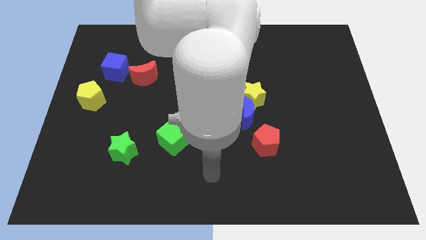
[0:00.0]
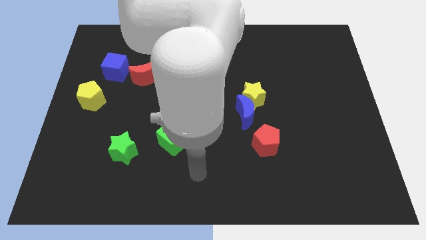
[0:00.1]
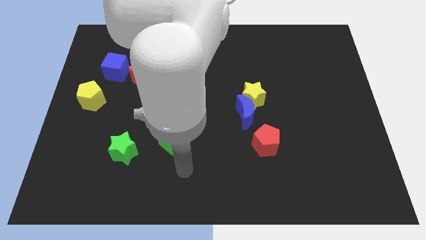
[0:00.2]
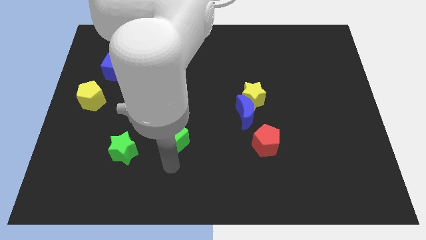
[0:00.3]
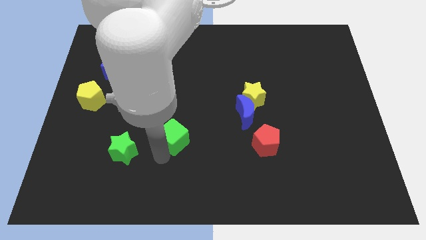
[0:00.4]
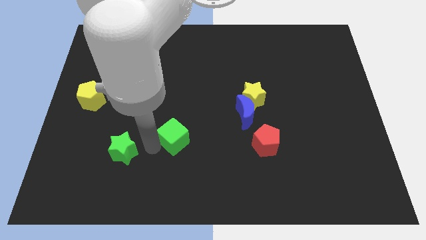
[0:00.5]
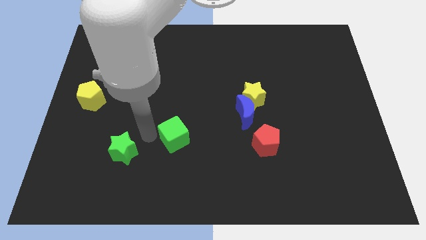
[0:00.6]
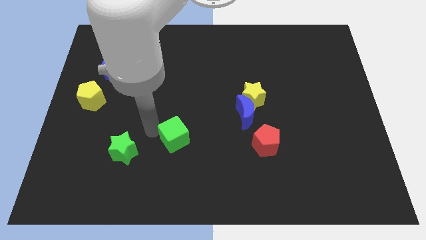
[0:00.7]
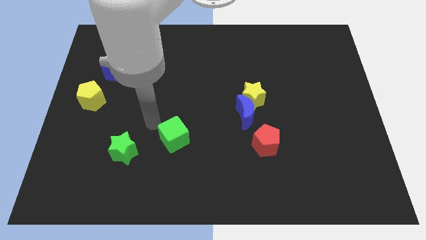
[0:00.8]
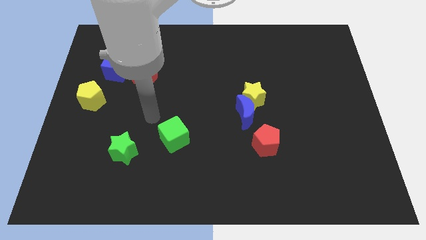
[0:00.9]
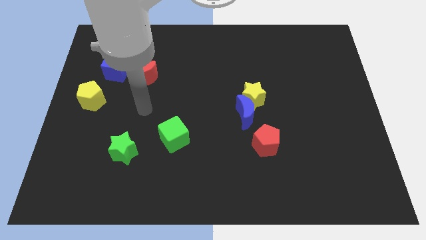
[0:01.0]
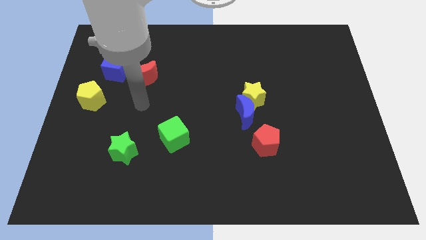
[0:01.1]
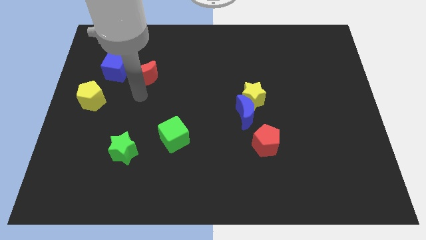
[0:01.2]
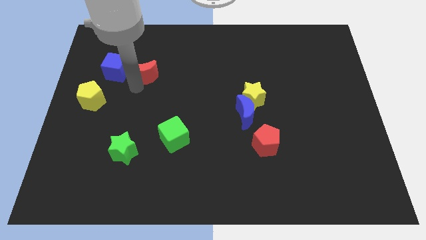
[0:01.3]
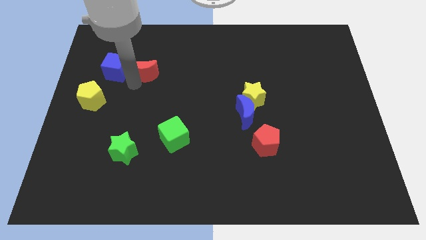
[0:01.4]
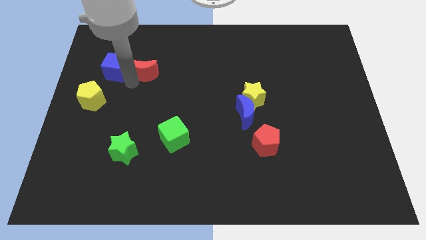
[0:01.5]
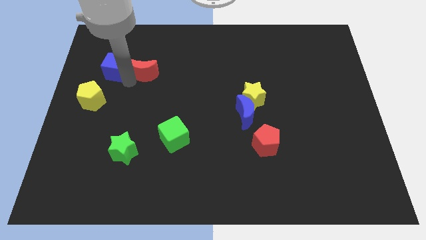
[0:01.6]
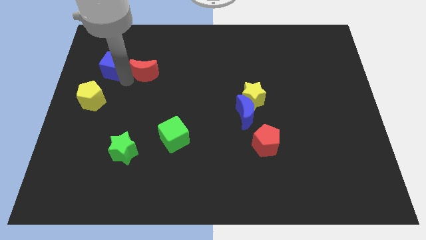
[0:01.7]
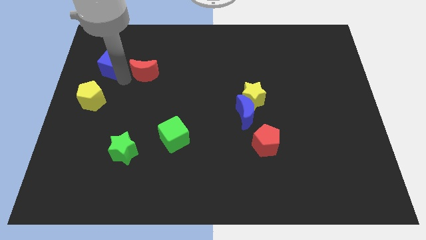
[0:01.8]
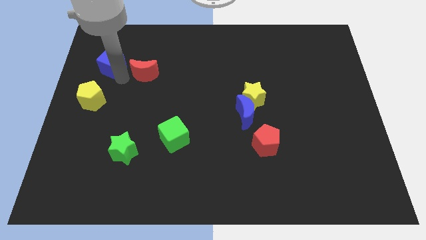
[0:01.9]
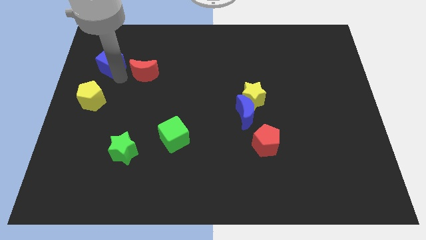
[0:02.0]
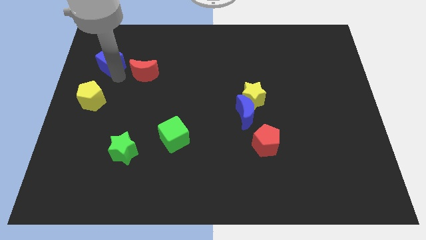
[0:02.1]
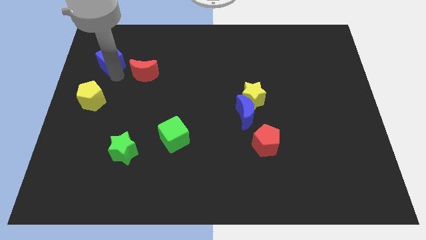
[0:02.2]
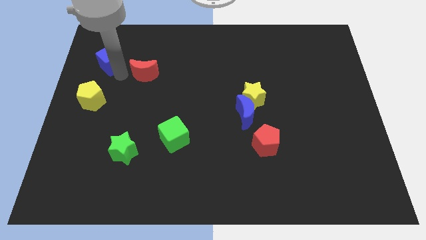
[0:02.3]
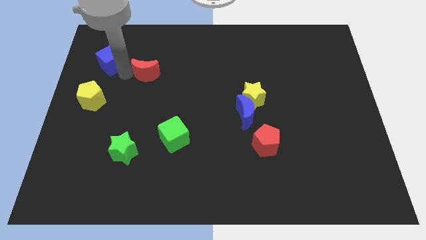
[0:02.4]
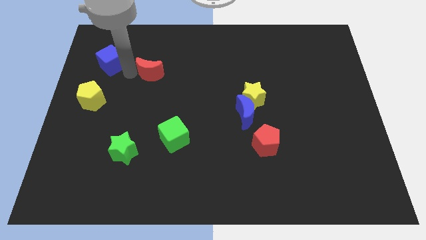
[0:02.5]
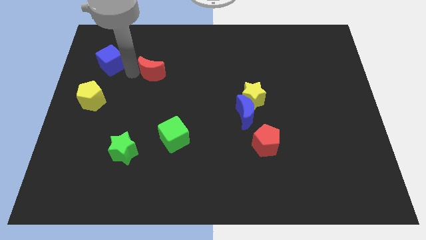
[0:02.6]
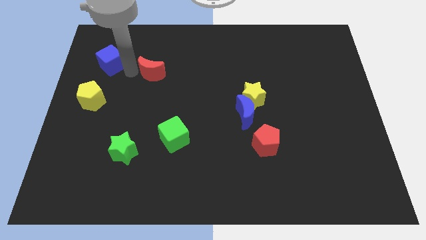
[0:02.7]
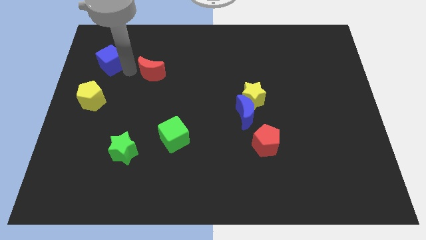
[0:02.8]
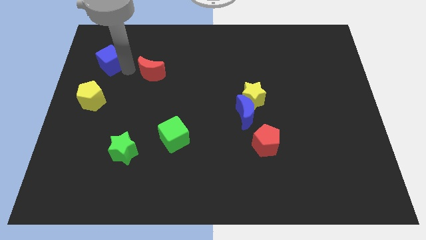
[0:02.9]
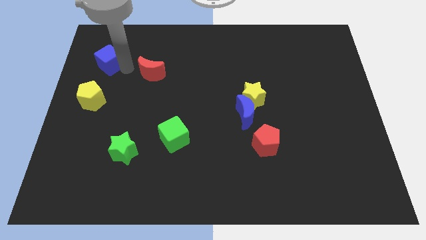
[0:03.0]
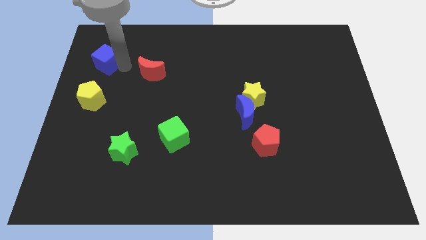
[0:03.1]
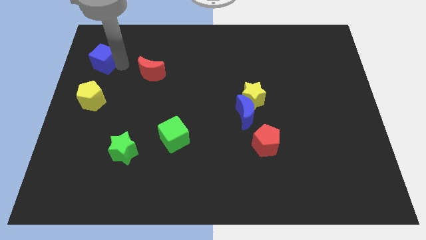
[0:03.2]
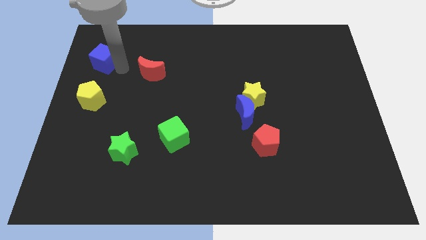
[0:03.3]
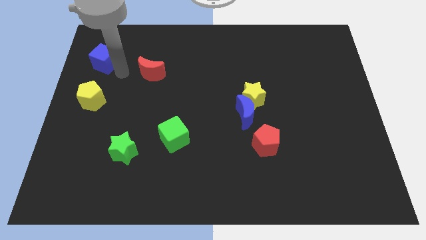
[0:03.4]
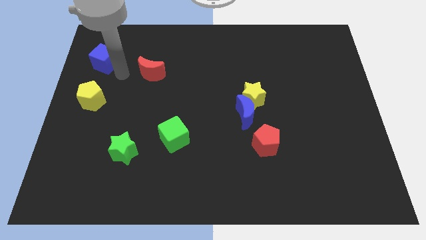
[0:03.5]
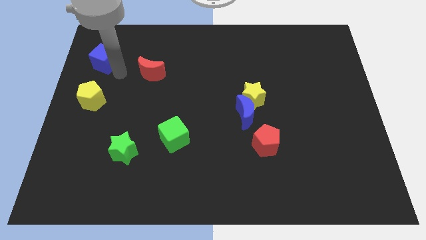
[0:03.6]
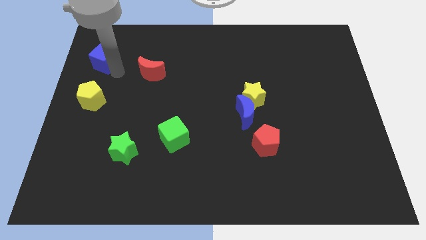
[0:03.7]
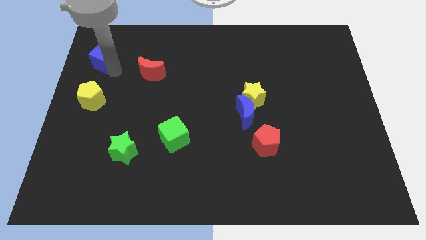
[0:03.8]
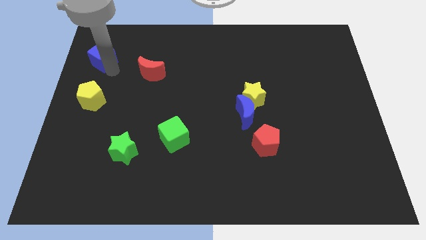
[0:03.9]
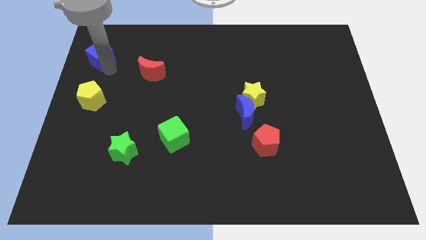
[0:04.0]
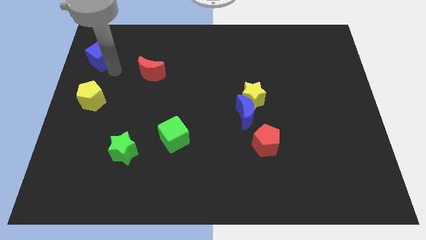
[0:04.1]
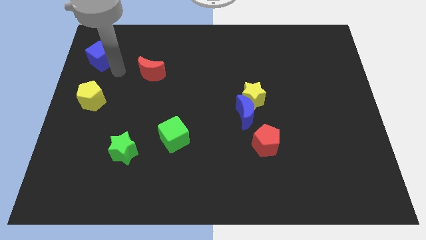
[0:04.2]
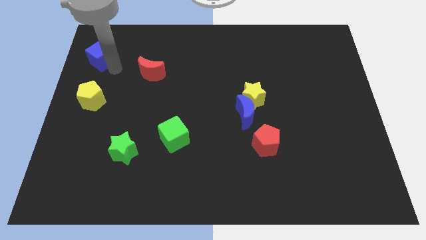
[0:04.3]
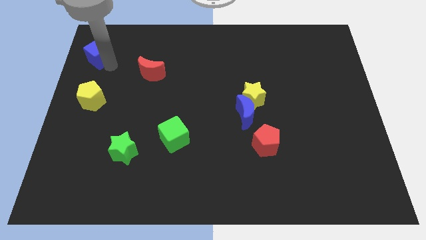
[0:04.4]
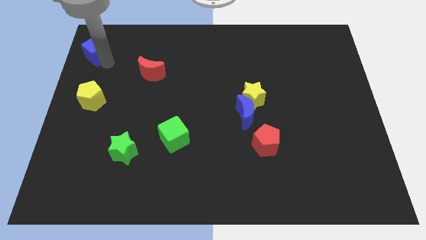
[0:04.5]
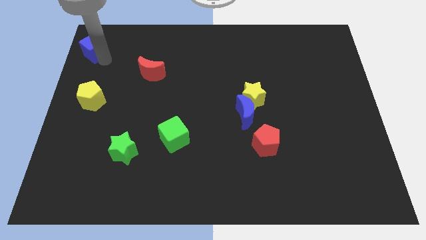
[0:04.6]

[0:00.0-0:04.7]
slide the blue cube to the upper left corner

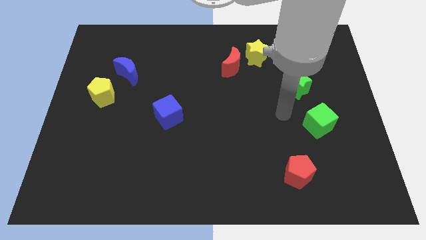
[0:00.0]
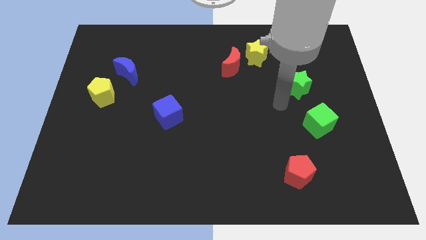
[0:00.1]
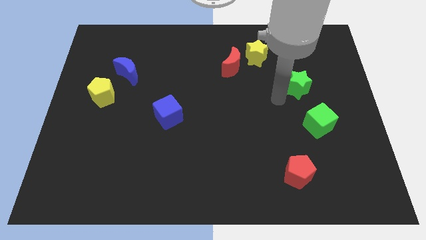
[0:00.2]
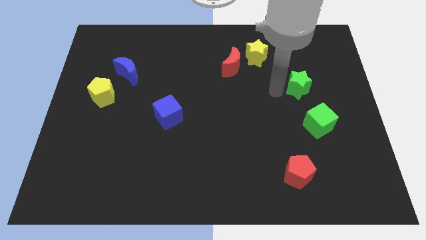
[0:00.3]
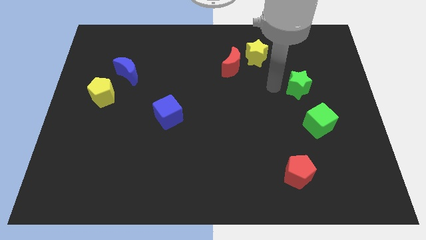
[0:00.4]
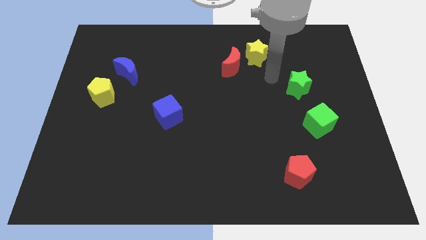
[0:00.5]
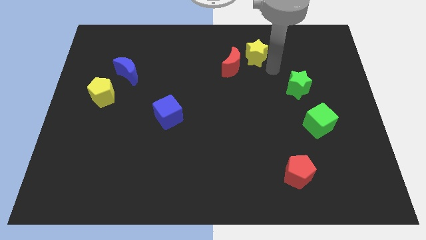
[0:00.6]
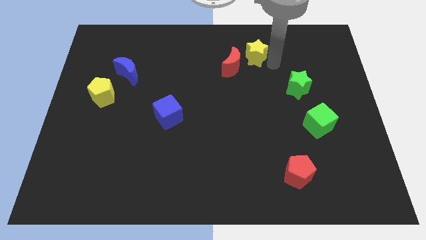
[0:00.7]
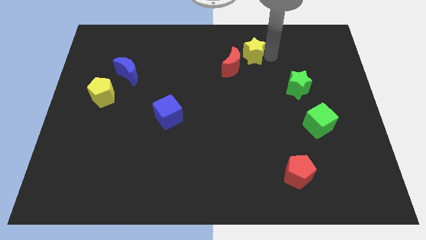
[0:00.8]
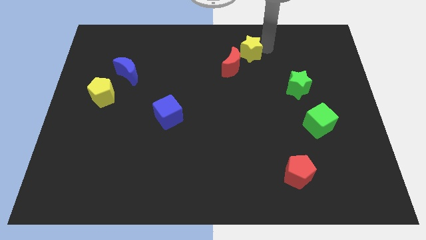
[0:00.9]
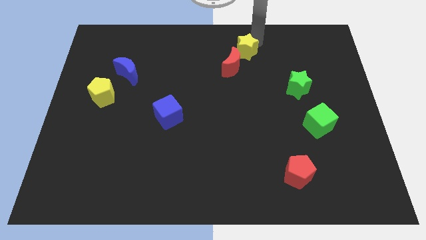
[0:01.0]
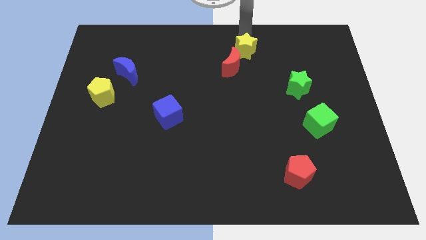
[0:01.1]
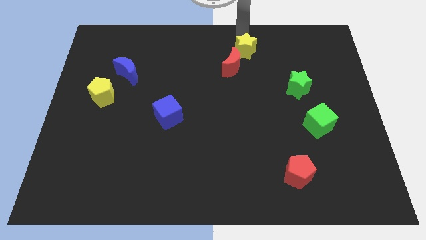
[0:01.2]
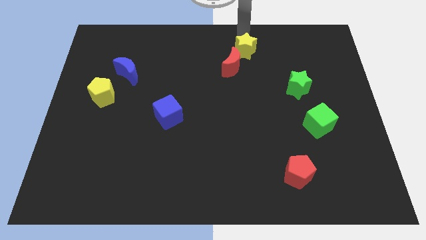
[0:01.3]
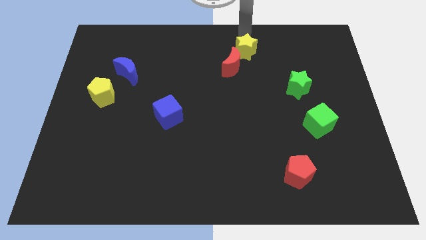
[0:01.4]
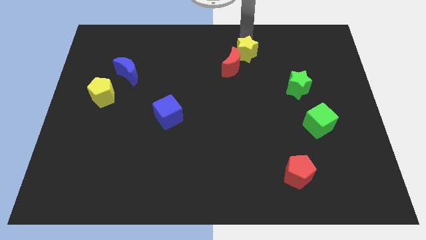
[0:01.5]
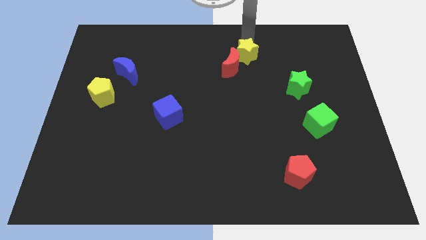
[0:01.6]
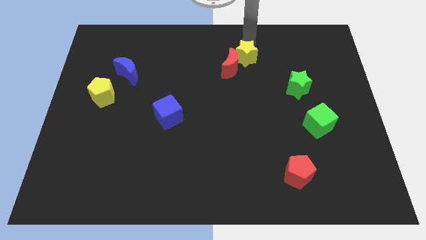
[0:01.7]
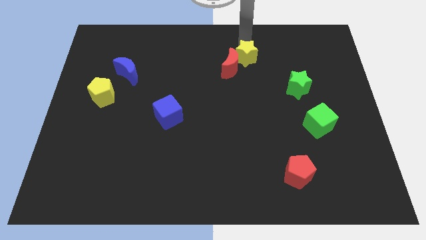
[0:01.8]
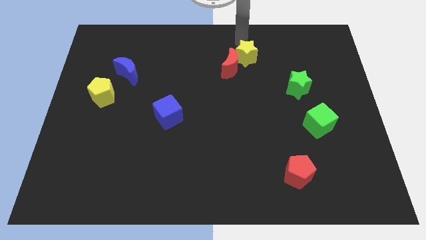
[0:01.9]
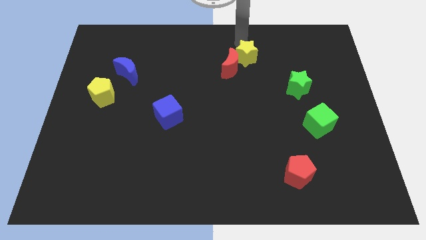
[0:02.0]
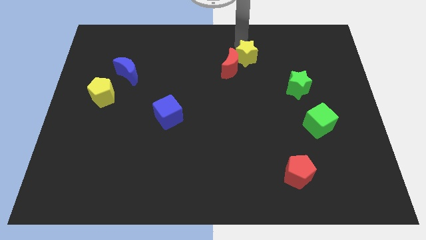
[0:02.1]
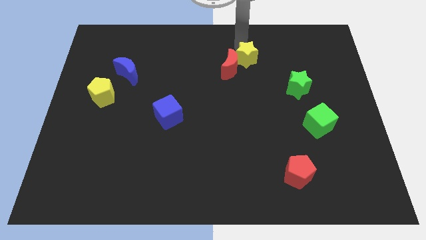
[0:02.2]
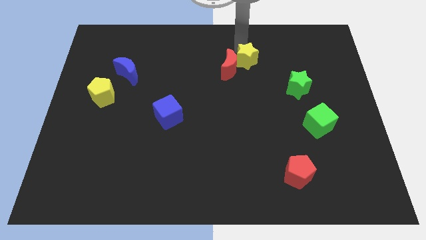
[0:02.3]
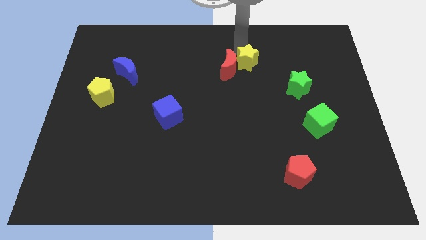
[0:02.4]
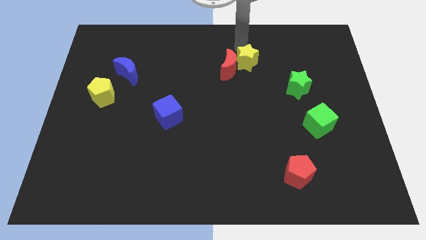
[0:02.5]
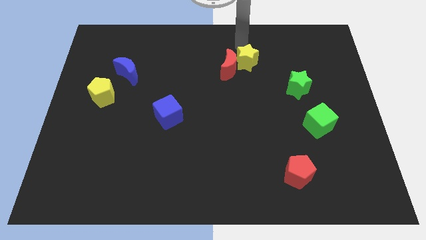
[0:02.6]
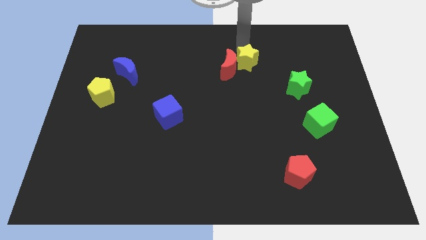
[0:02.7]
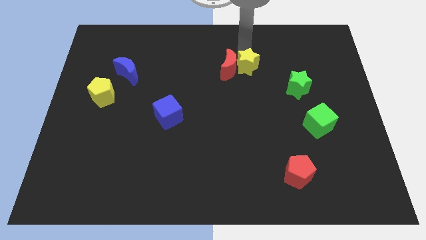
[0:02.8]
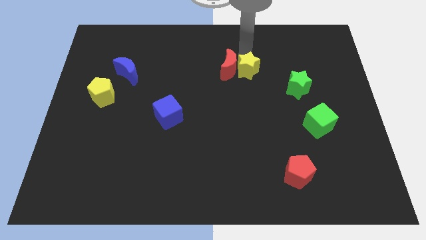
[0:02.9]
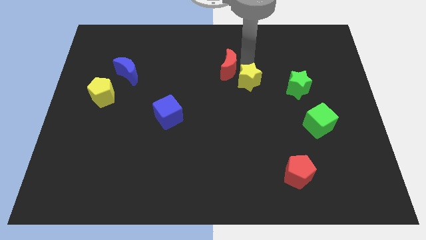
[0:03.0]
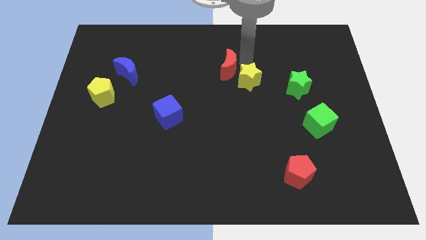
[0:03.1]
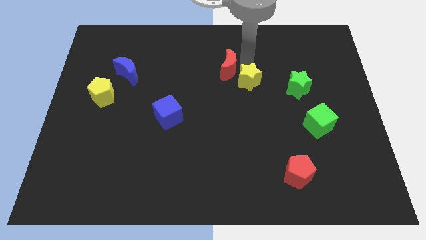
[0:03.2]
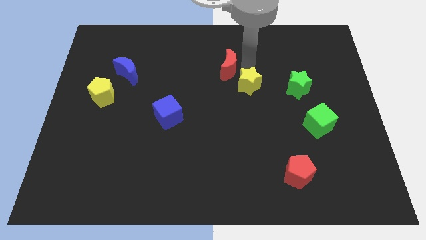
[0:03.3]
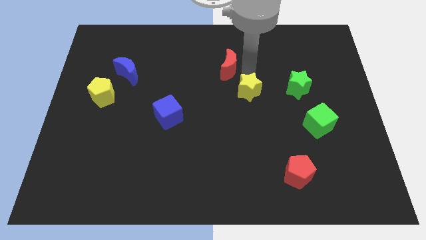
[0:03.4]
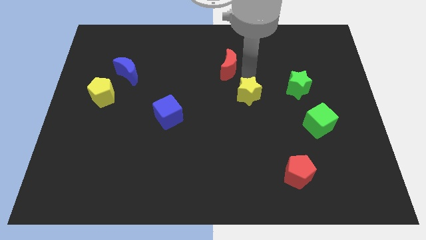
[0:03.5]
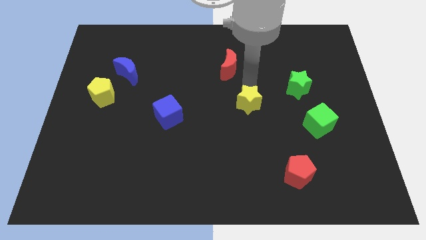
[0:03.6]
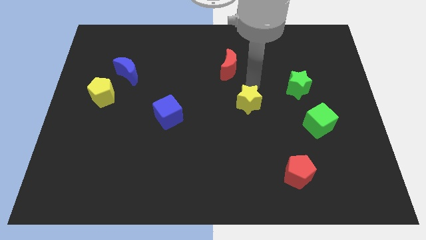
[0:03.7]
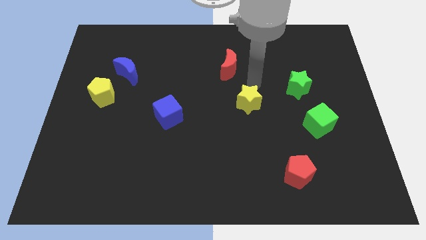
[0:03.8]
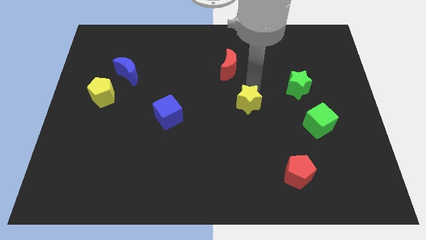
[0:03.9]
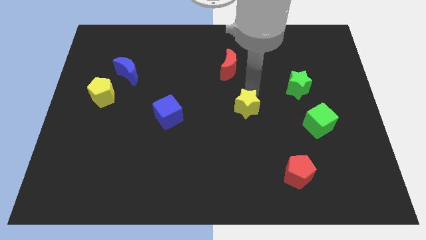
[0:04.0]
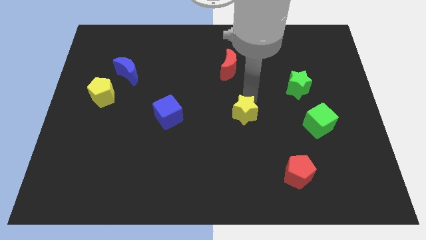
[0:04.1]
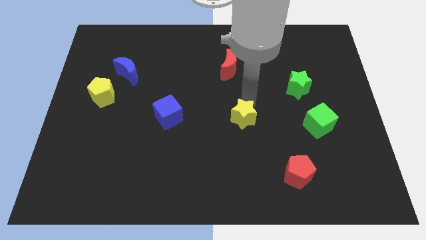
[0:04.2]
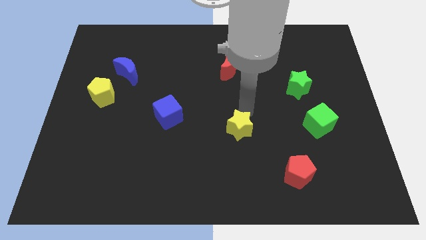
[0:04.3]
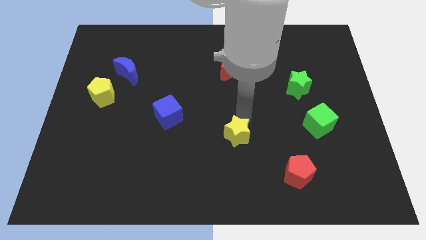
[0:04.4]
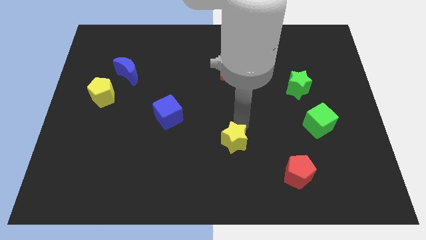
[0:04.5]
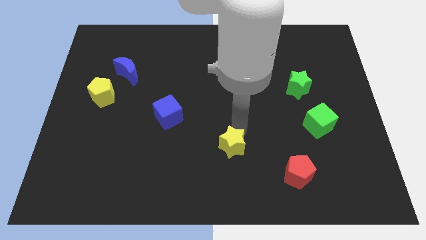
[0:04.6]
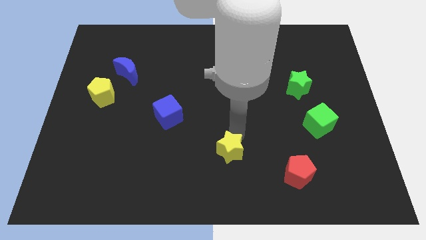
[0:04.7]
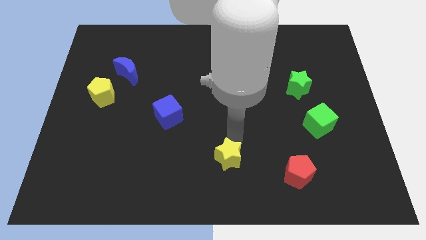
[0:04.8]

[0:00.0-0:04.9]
move the yellow star to the bottom
